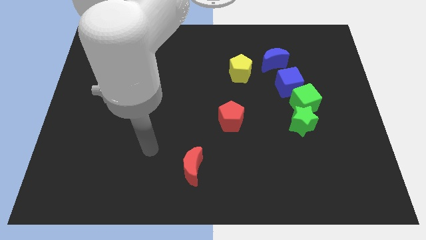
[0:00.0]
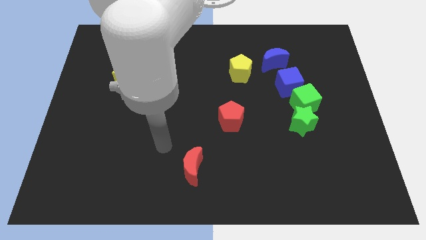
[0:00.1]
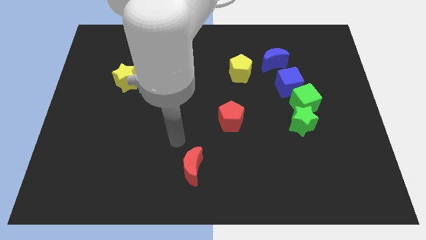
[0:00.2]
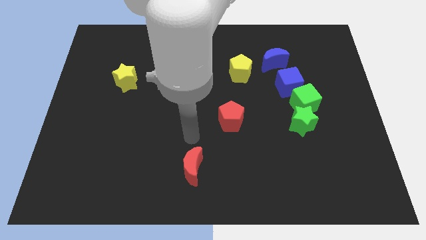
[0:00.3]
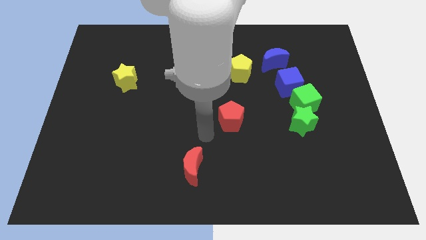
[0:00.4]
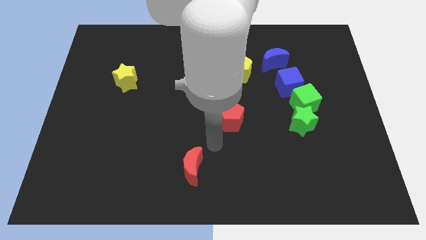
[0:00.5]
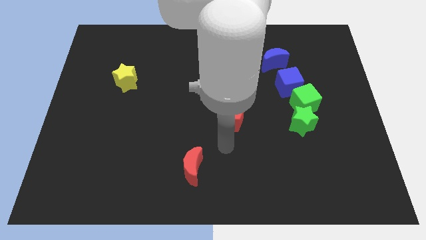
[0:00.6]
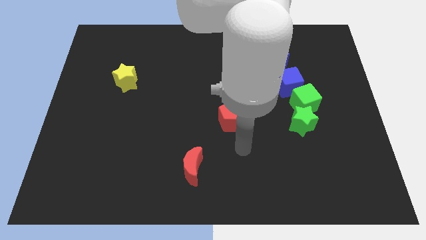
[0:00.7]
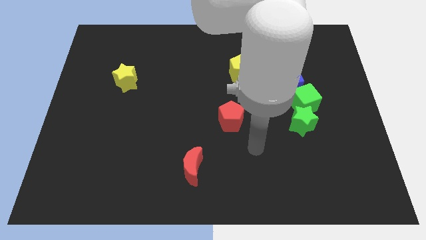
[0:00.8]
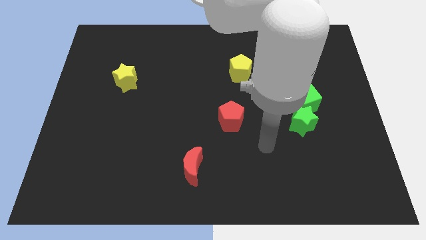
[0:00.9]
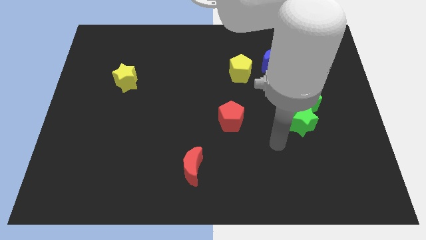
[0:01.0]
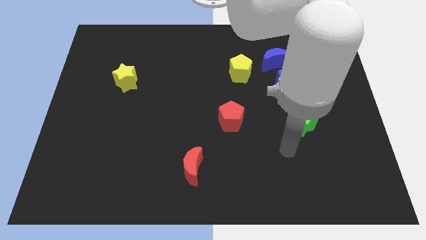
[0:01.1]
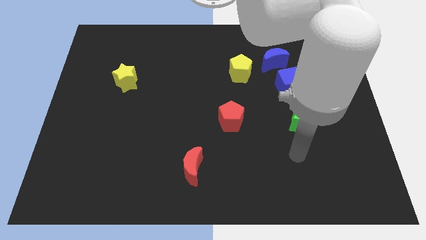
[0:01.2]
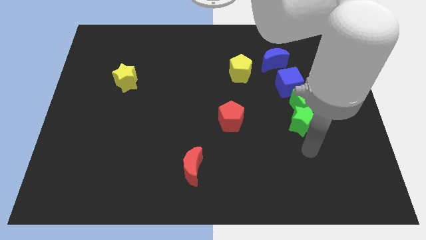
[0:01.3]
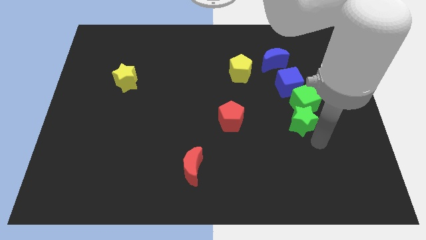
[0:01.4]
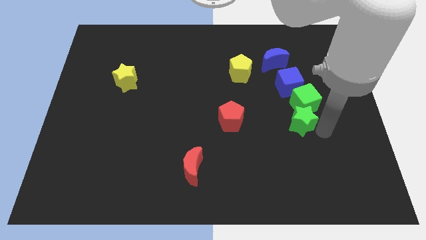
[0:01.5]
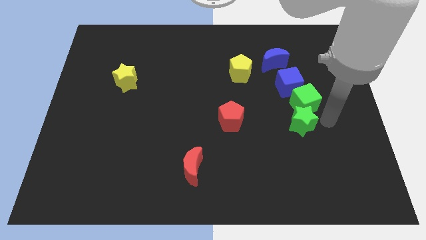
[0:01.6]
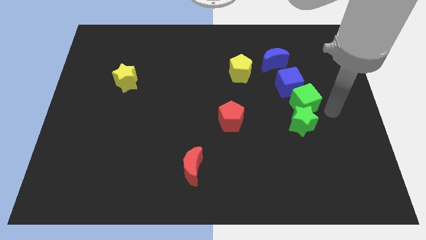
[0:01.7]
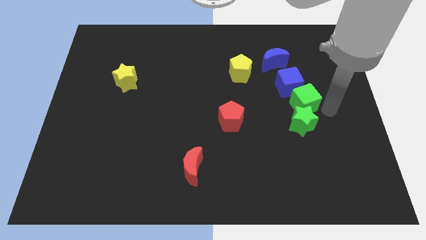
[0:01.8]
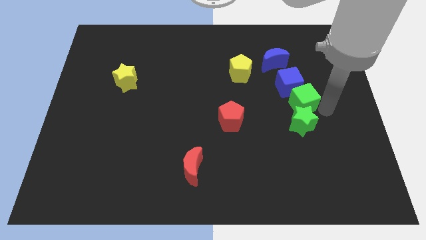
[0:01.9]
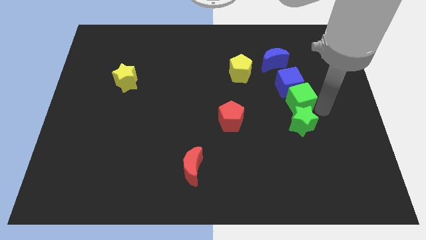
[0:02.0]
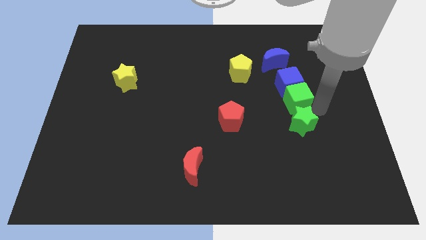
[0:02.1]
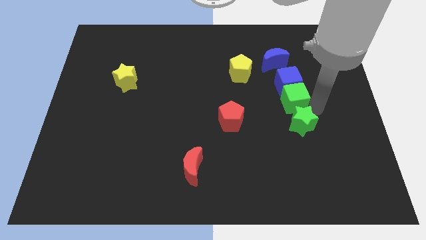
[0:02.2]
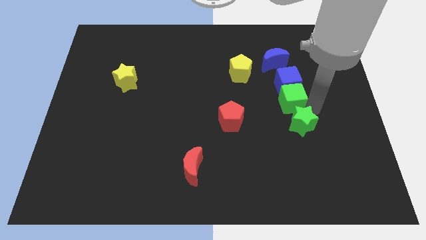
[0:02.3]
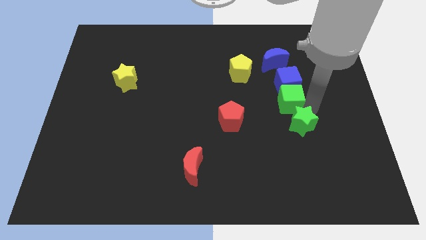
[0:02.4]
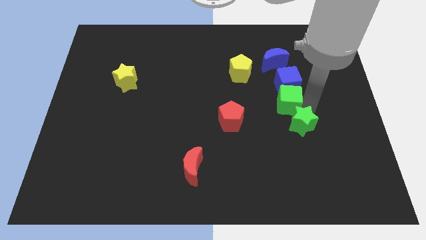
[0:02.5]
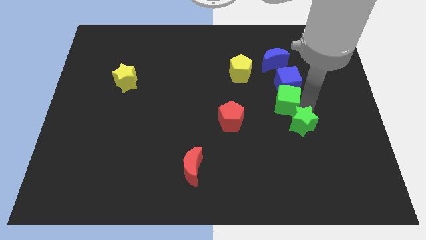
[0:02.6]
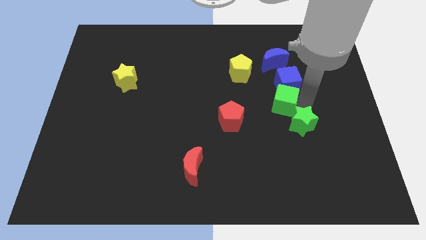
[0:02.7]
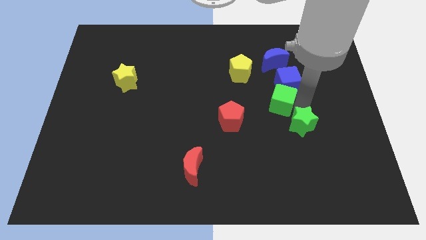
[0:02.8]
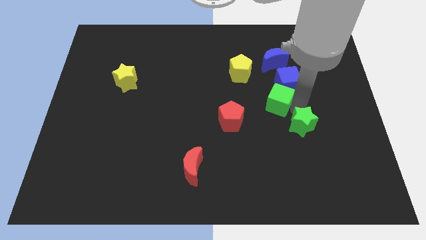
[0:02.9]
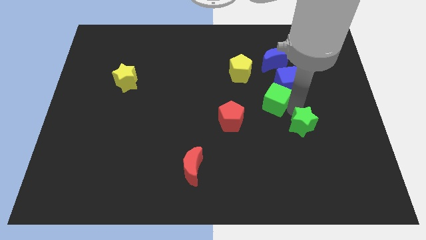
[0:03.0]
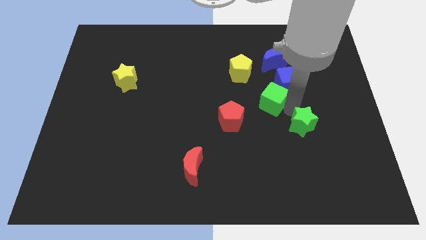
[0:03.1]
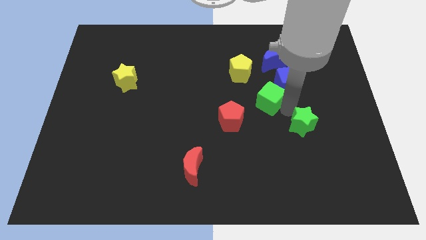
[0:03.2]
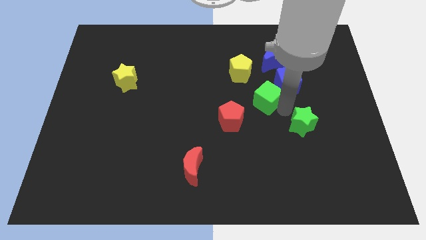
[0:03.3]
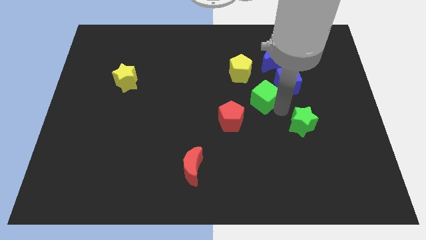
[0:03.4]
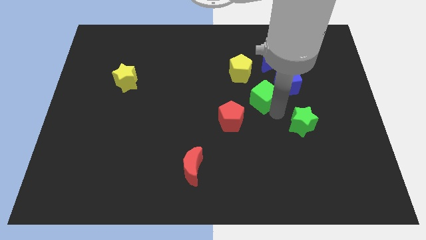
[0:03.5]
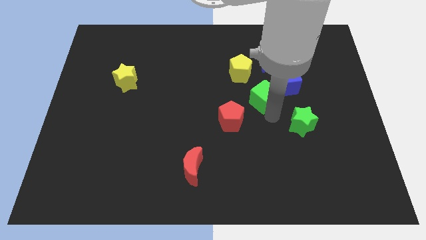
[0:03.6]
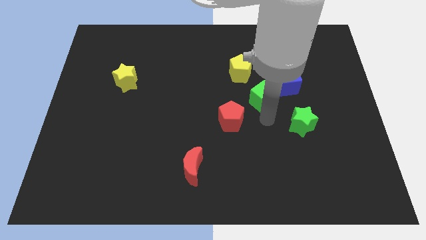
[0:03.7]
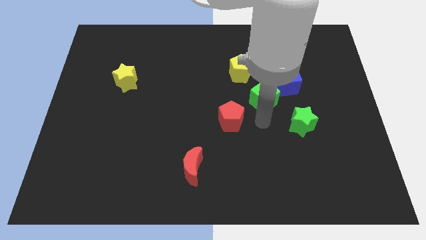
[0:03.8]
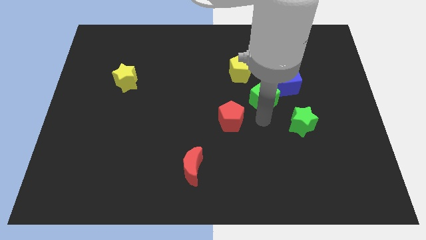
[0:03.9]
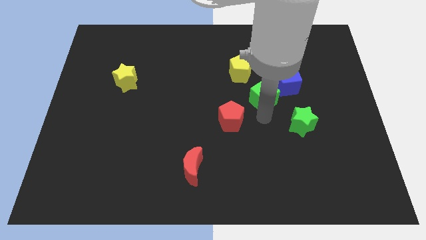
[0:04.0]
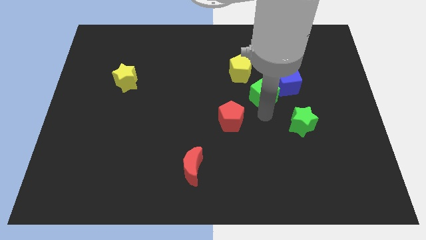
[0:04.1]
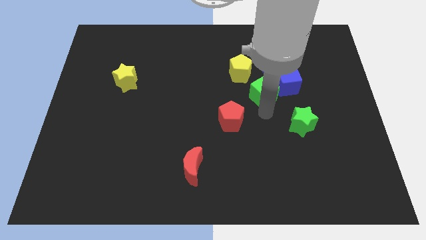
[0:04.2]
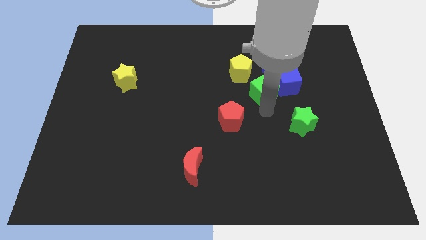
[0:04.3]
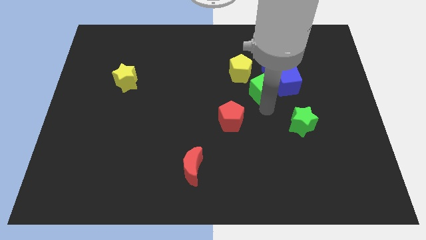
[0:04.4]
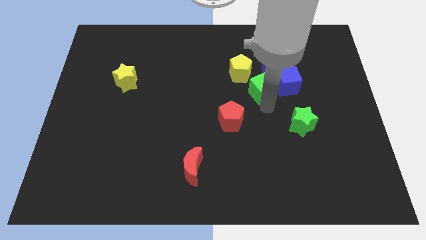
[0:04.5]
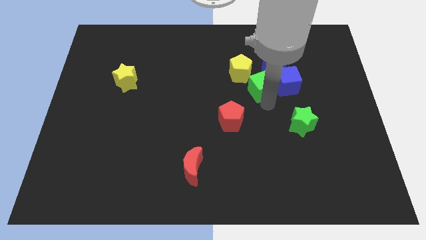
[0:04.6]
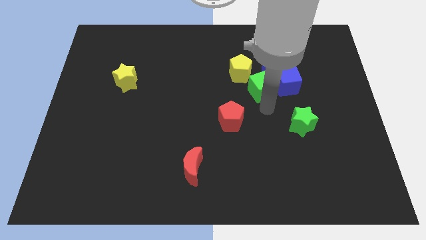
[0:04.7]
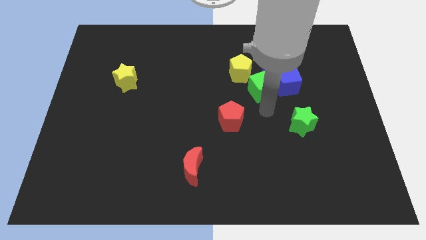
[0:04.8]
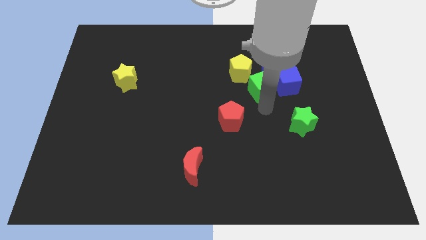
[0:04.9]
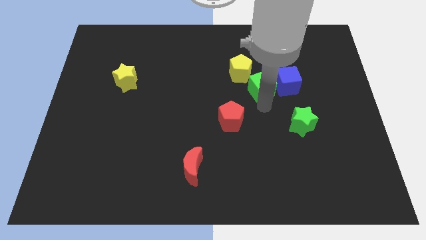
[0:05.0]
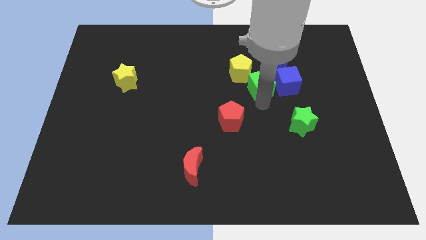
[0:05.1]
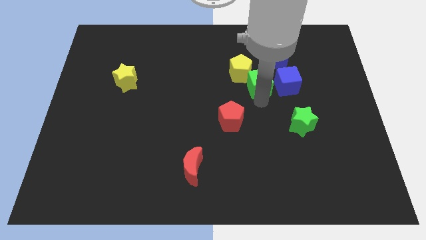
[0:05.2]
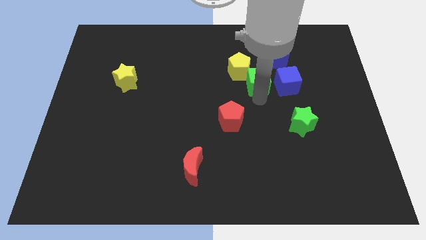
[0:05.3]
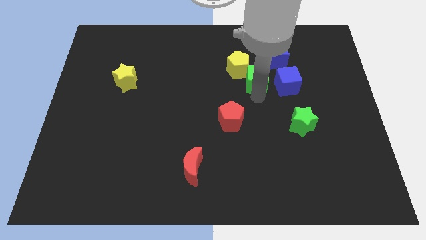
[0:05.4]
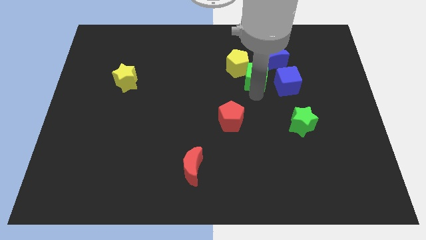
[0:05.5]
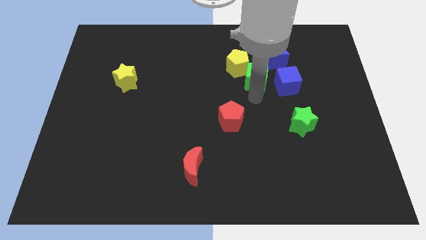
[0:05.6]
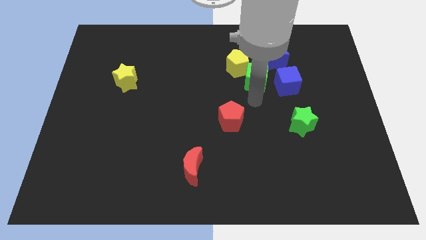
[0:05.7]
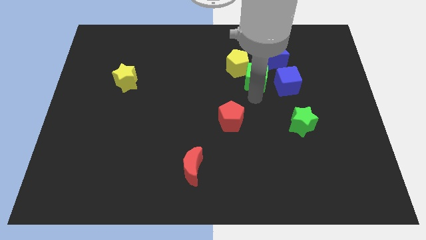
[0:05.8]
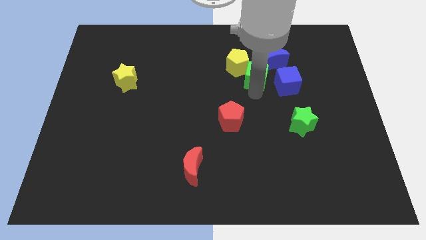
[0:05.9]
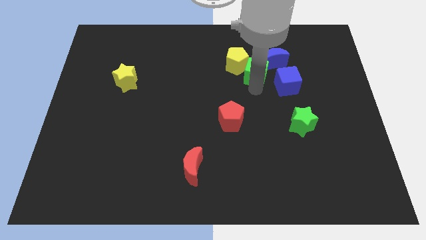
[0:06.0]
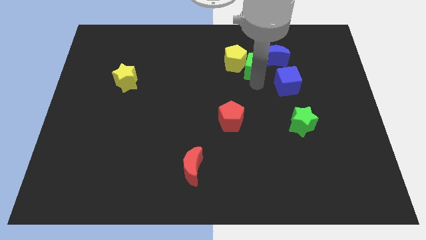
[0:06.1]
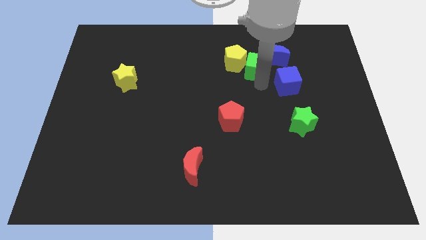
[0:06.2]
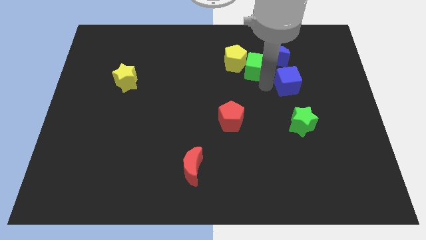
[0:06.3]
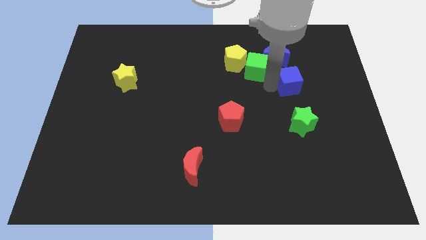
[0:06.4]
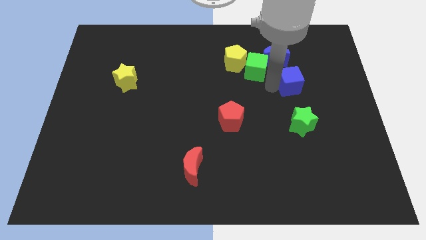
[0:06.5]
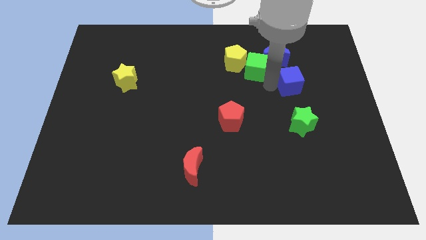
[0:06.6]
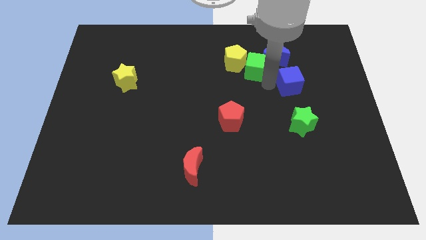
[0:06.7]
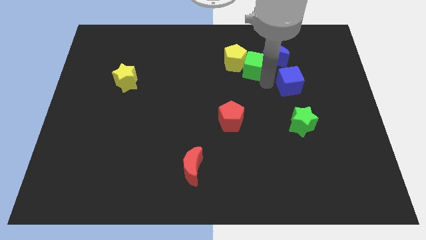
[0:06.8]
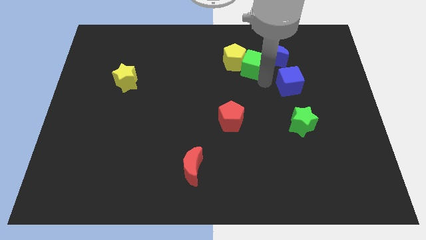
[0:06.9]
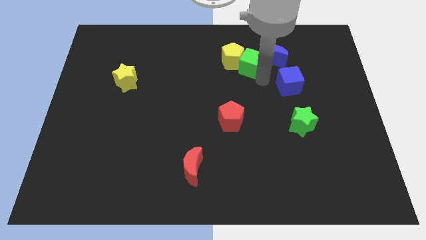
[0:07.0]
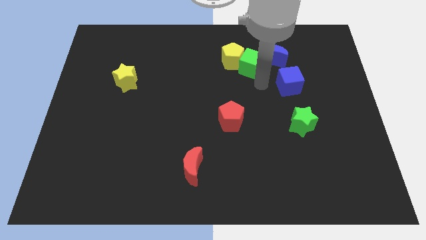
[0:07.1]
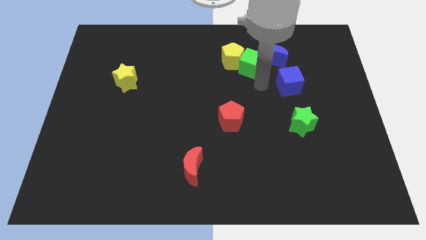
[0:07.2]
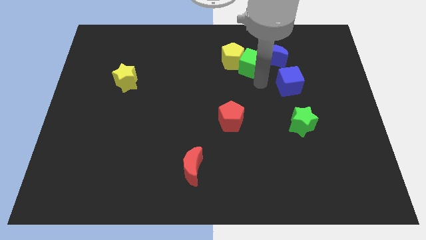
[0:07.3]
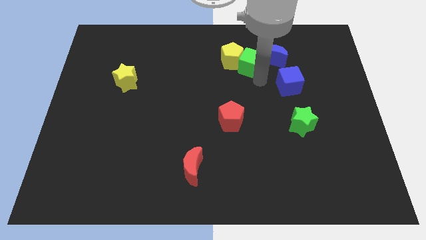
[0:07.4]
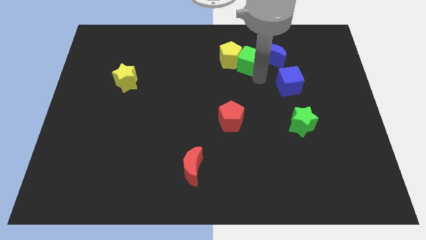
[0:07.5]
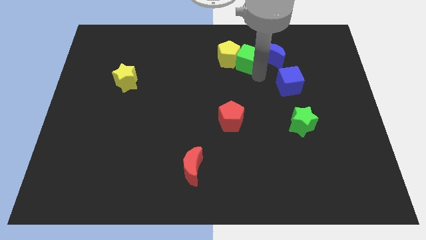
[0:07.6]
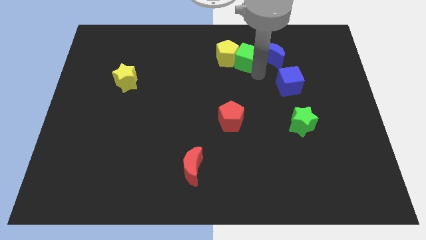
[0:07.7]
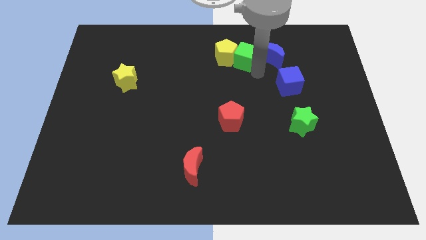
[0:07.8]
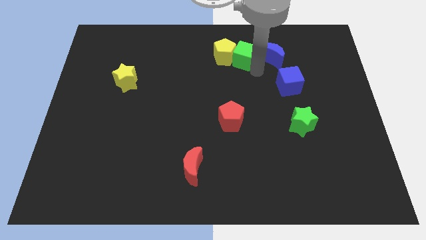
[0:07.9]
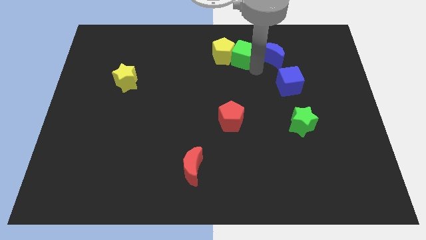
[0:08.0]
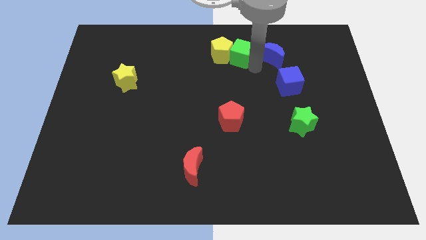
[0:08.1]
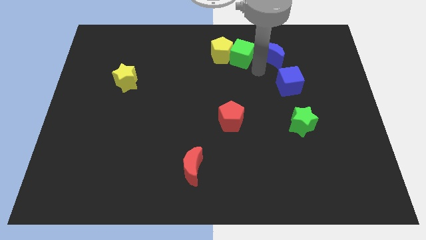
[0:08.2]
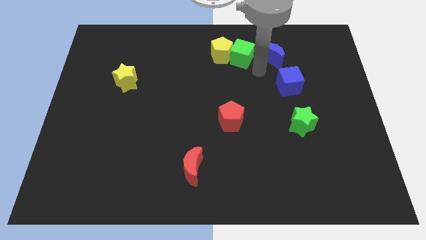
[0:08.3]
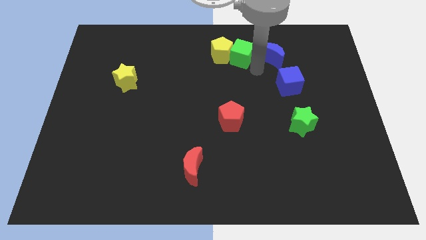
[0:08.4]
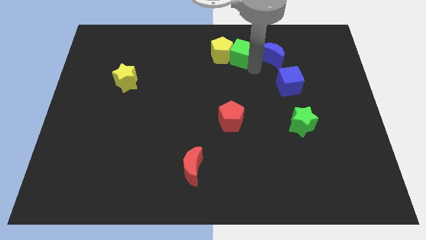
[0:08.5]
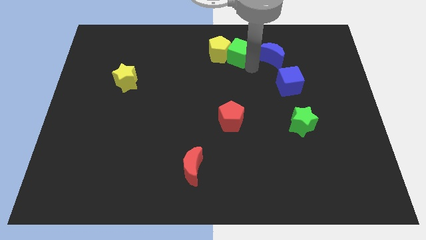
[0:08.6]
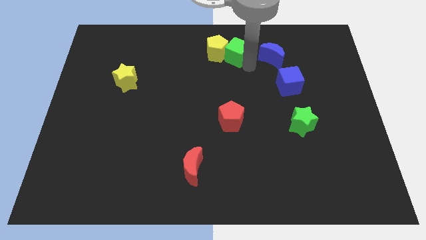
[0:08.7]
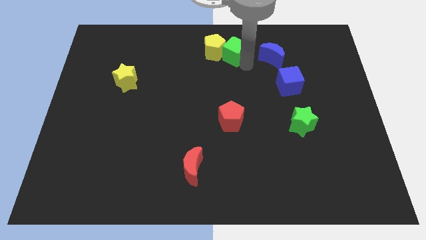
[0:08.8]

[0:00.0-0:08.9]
slide the green cube to the top side
